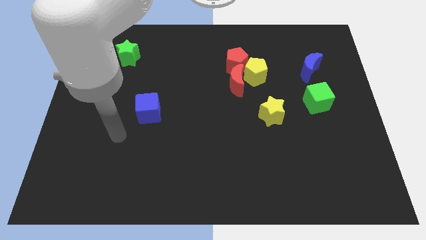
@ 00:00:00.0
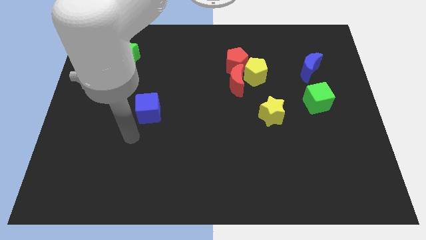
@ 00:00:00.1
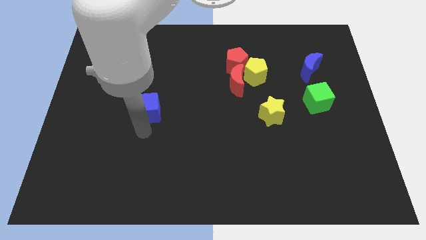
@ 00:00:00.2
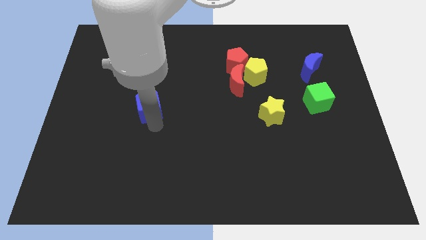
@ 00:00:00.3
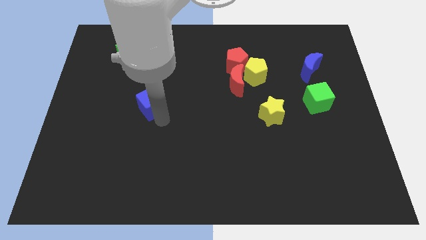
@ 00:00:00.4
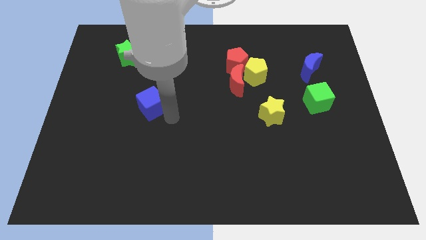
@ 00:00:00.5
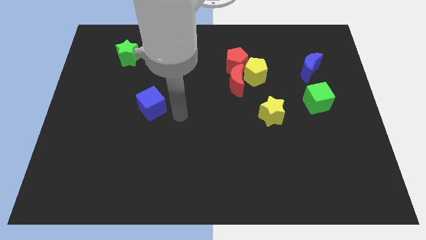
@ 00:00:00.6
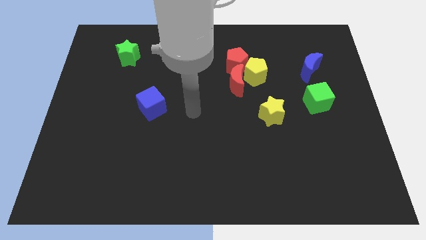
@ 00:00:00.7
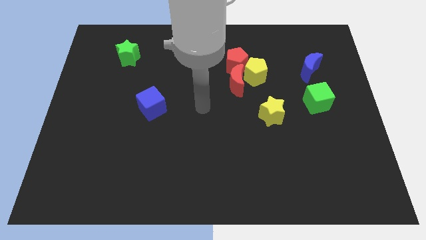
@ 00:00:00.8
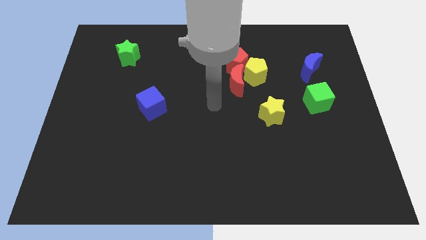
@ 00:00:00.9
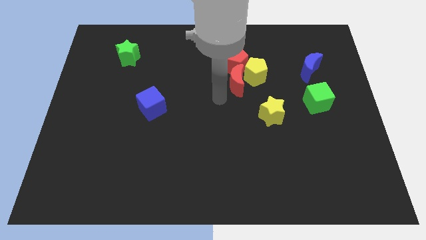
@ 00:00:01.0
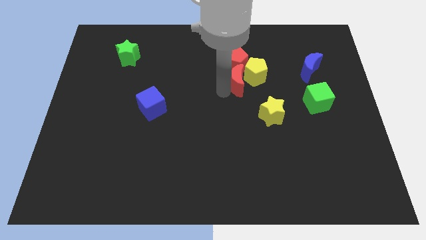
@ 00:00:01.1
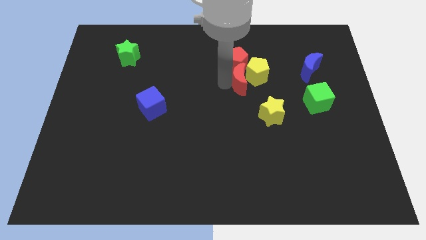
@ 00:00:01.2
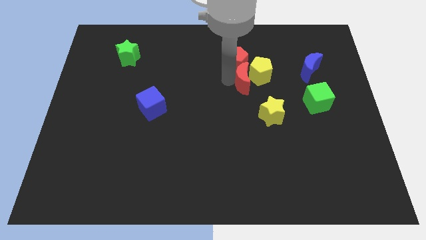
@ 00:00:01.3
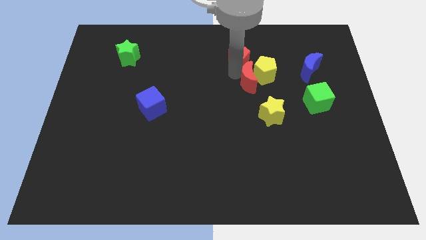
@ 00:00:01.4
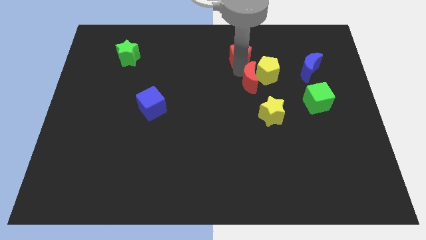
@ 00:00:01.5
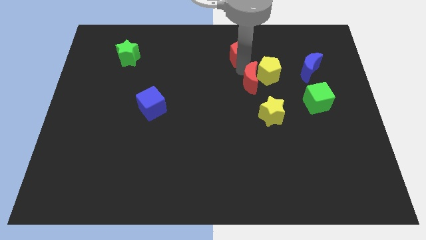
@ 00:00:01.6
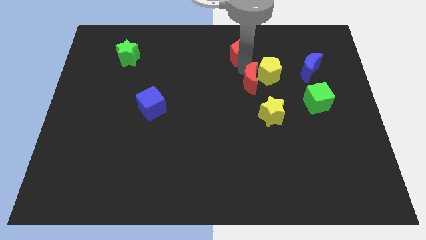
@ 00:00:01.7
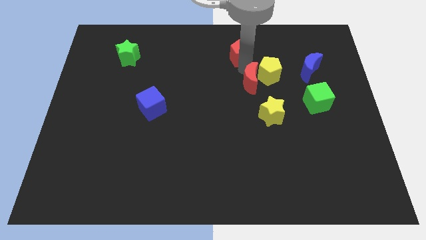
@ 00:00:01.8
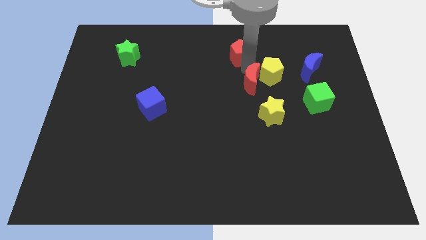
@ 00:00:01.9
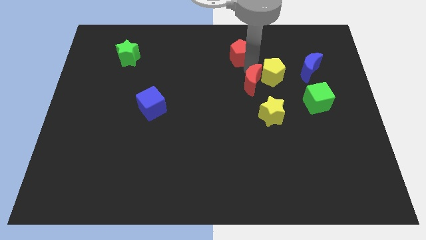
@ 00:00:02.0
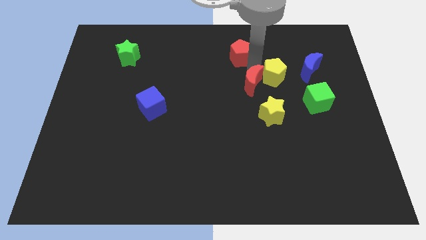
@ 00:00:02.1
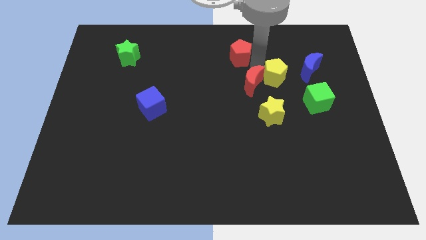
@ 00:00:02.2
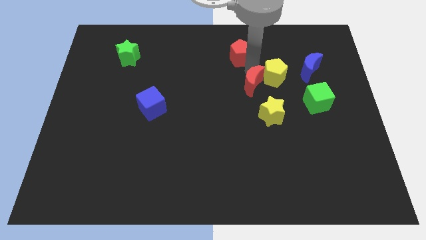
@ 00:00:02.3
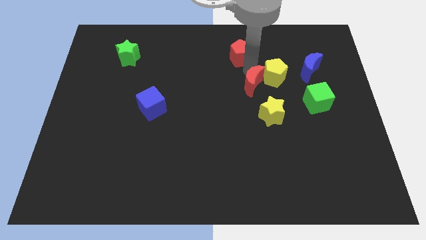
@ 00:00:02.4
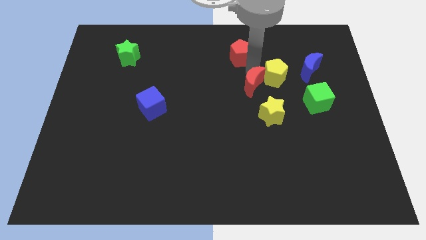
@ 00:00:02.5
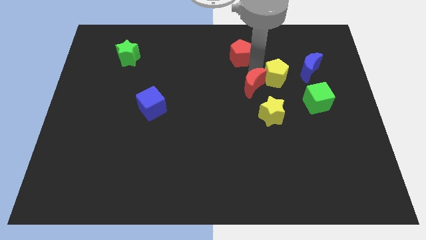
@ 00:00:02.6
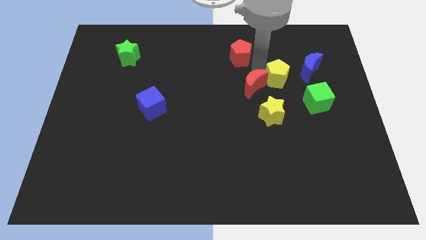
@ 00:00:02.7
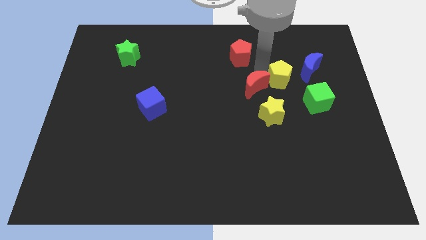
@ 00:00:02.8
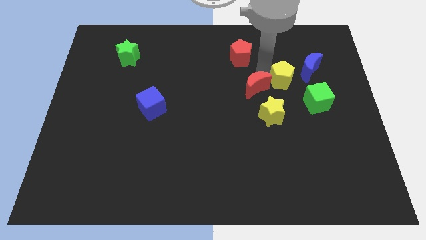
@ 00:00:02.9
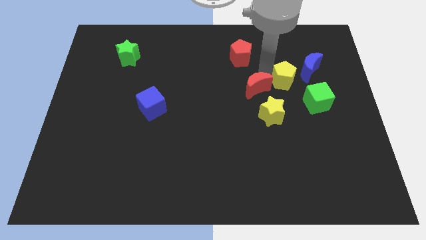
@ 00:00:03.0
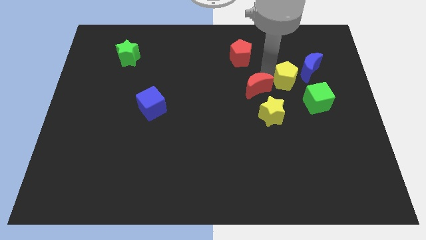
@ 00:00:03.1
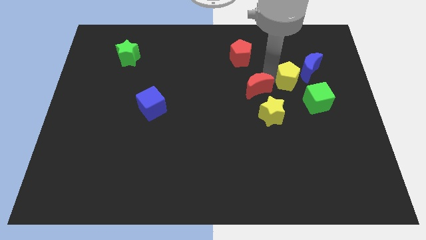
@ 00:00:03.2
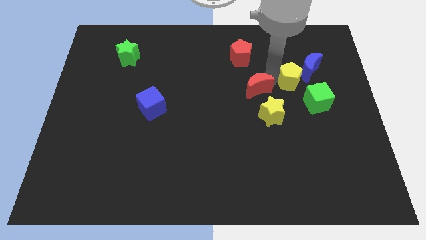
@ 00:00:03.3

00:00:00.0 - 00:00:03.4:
pull the yellow pentagon apart from the red moon and red pentagon

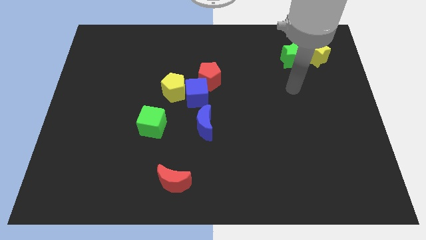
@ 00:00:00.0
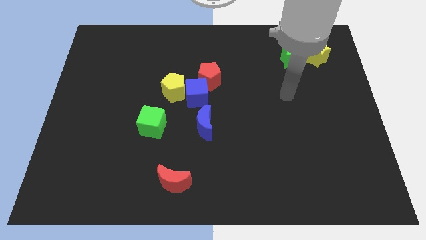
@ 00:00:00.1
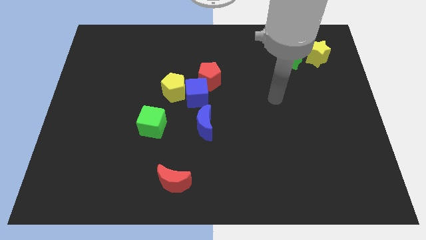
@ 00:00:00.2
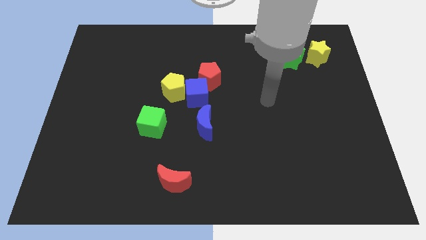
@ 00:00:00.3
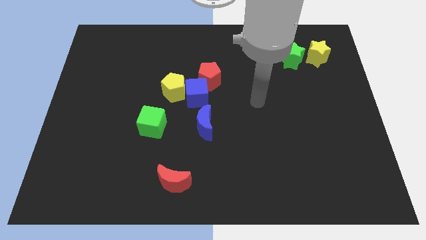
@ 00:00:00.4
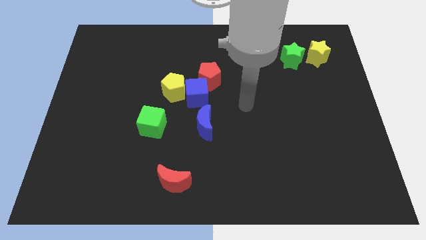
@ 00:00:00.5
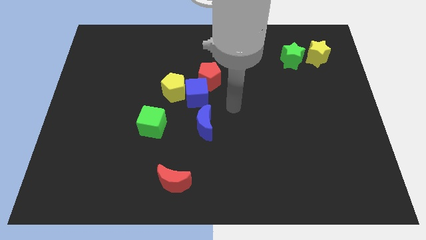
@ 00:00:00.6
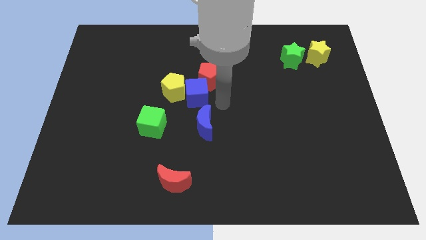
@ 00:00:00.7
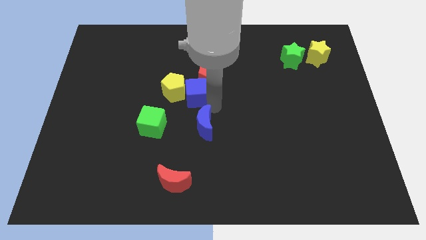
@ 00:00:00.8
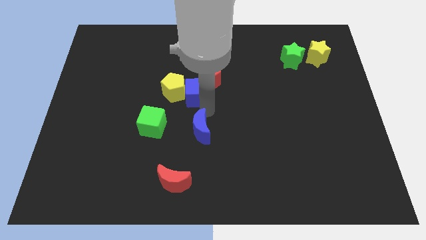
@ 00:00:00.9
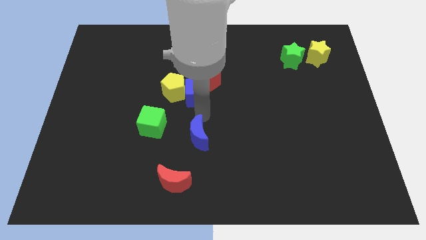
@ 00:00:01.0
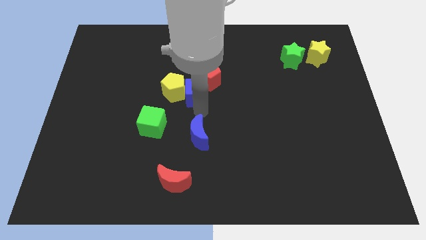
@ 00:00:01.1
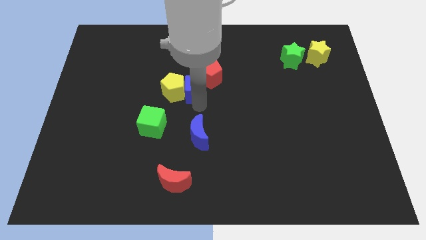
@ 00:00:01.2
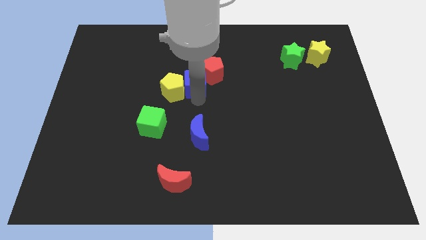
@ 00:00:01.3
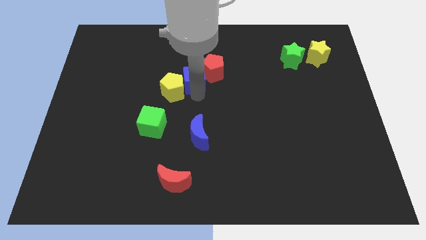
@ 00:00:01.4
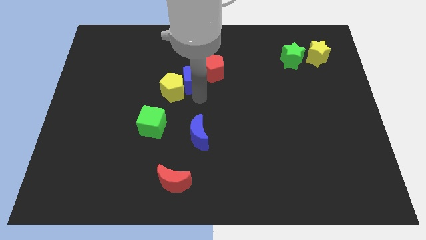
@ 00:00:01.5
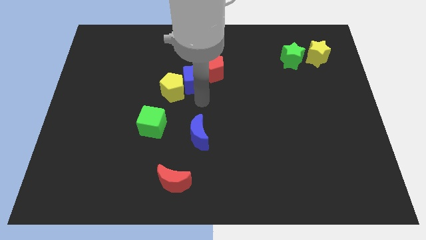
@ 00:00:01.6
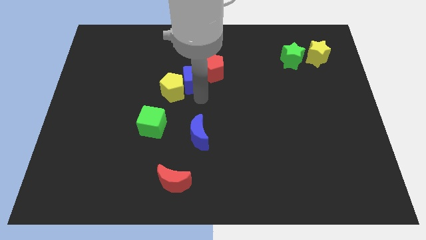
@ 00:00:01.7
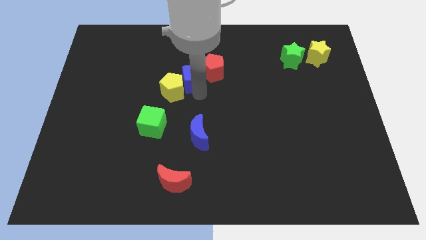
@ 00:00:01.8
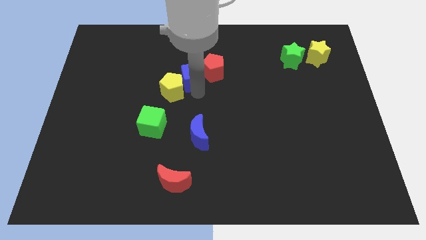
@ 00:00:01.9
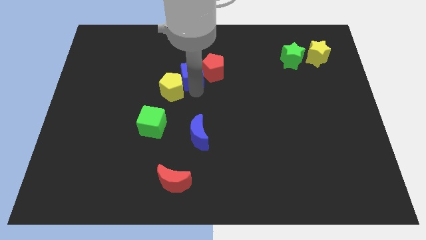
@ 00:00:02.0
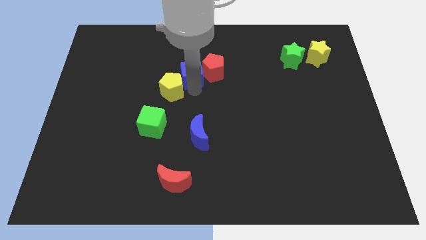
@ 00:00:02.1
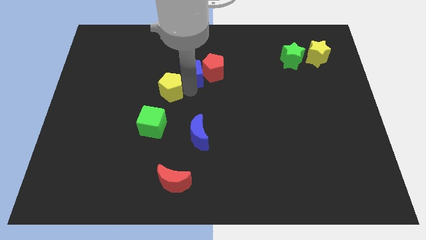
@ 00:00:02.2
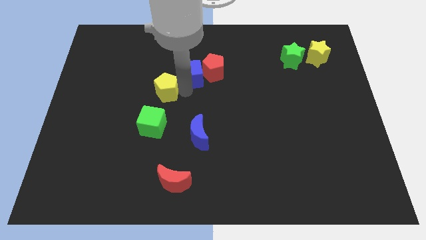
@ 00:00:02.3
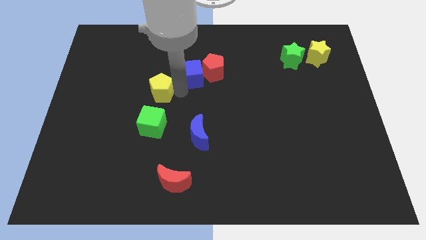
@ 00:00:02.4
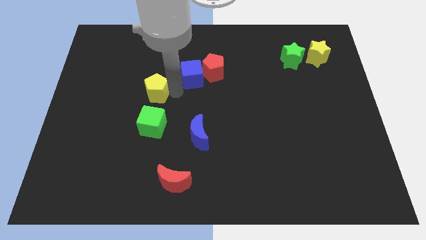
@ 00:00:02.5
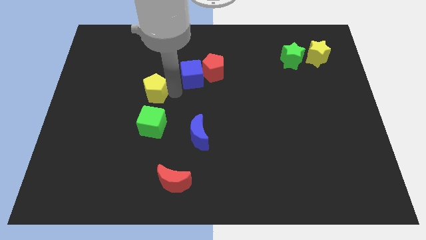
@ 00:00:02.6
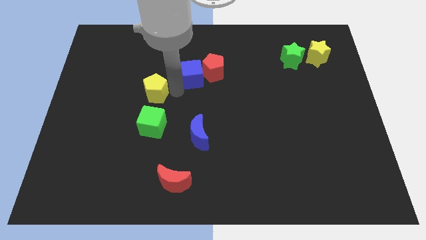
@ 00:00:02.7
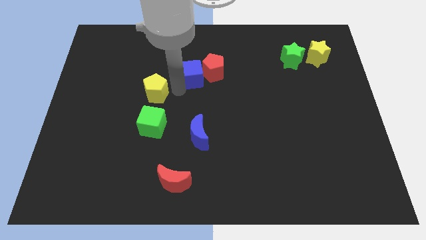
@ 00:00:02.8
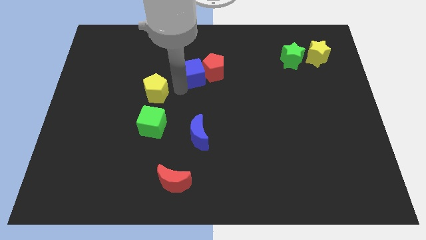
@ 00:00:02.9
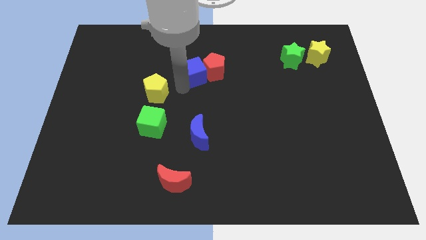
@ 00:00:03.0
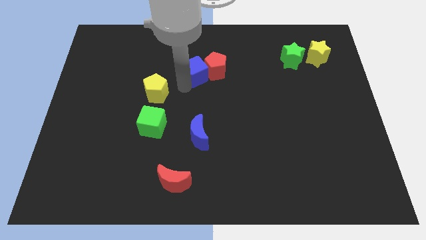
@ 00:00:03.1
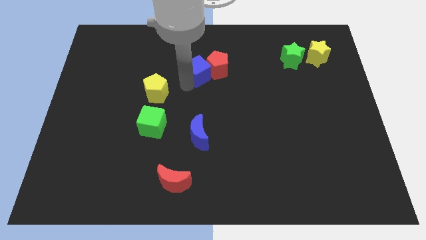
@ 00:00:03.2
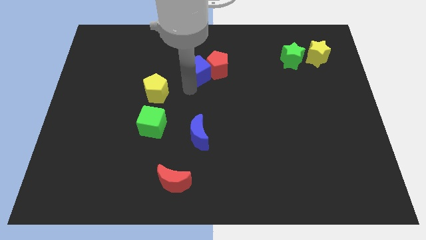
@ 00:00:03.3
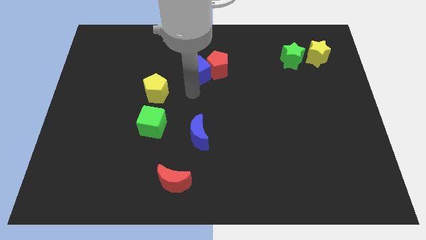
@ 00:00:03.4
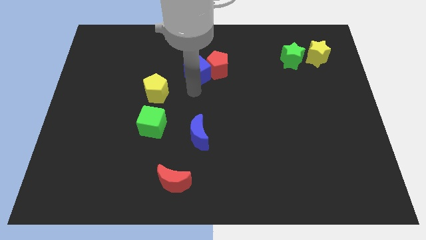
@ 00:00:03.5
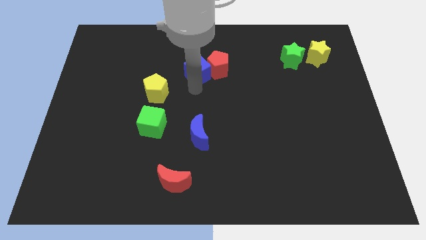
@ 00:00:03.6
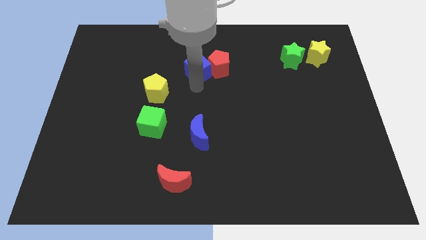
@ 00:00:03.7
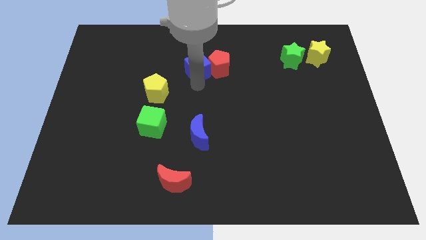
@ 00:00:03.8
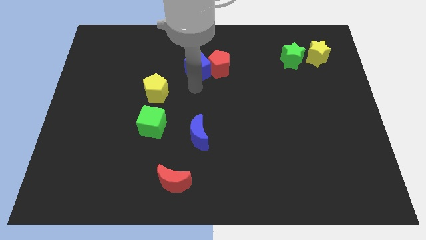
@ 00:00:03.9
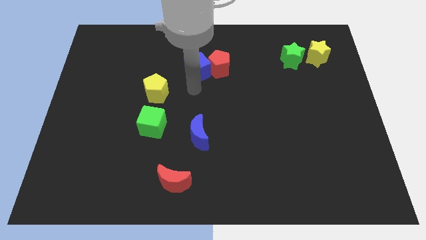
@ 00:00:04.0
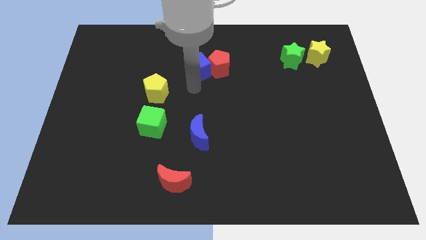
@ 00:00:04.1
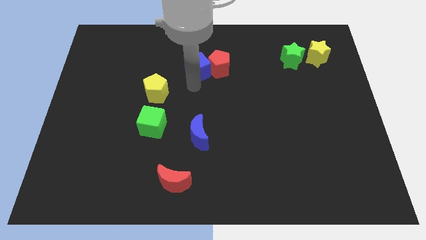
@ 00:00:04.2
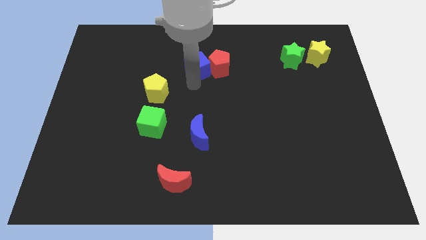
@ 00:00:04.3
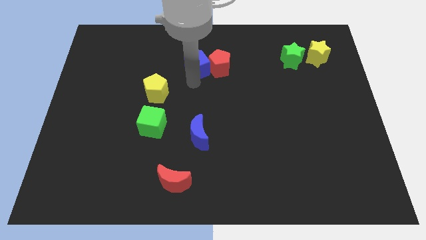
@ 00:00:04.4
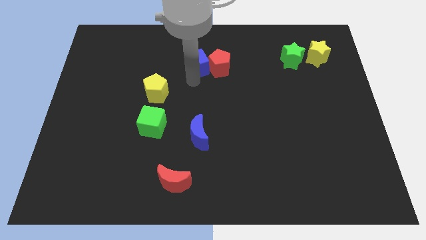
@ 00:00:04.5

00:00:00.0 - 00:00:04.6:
move the blue cube away from the group of blocks

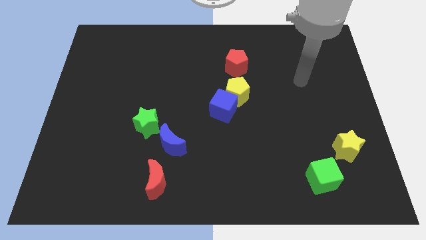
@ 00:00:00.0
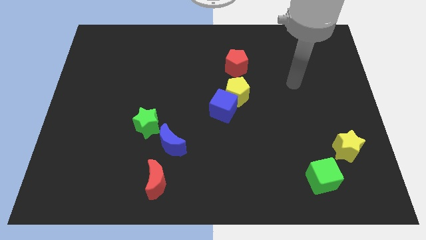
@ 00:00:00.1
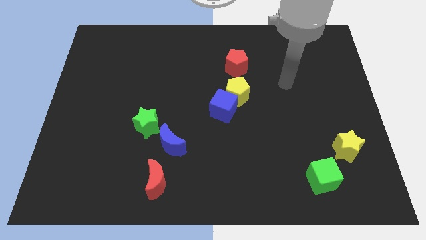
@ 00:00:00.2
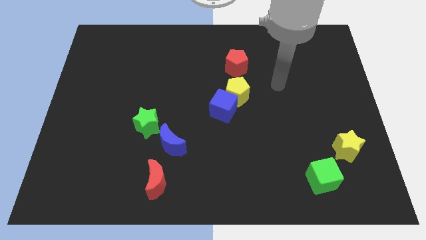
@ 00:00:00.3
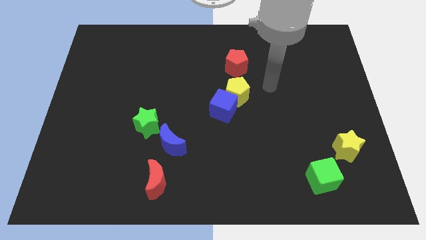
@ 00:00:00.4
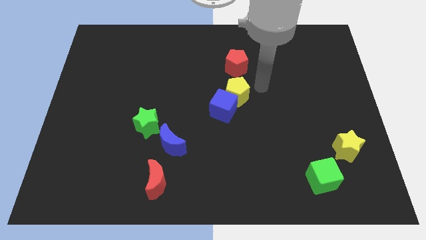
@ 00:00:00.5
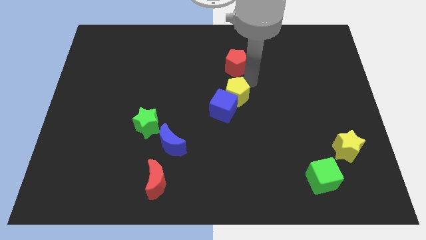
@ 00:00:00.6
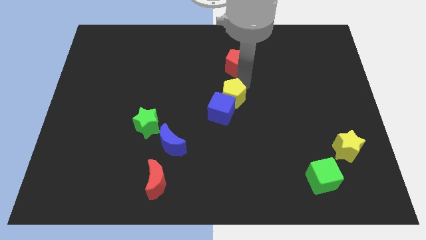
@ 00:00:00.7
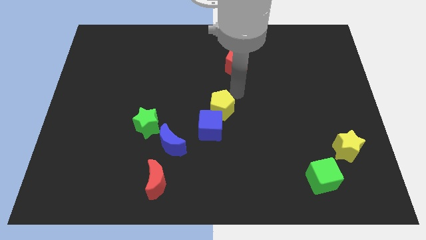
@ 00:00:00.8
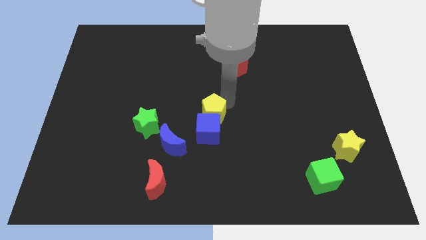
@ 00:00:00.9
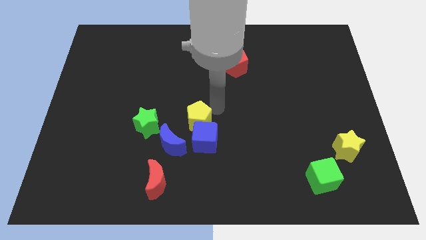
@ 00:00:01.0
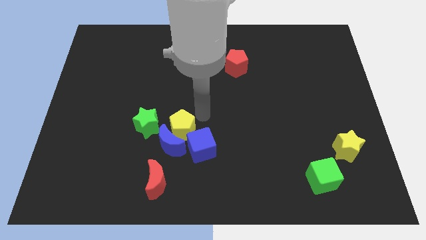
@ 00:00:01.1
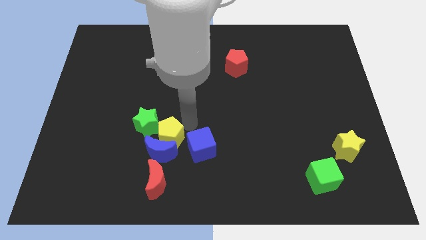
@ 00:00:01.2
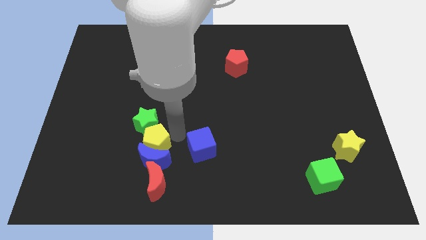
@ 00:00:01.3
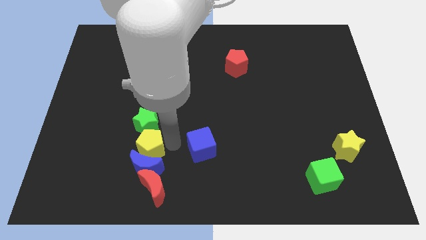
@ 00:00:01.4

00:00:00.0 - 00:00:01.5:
move the blue cube away from the yellow pentagon
